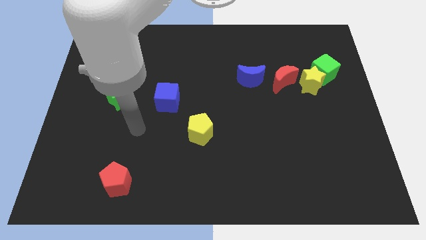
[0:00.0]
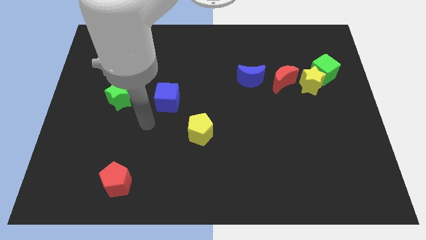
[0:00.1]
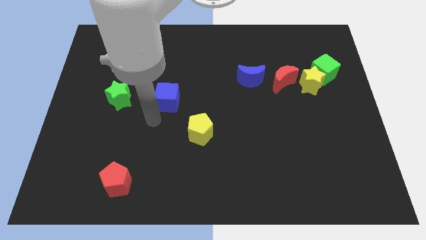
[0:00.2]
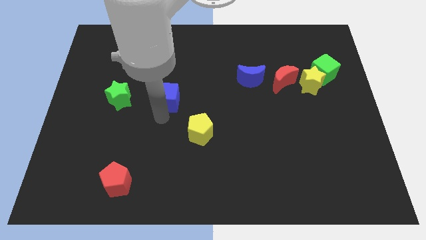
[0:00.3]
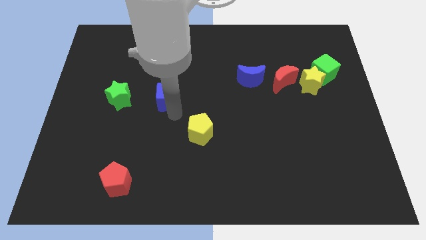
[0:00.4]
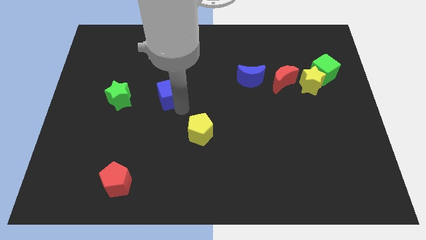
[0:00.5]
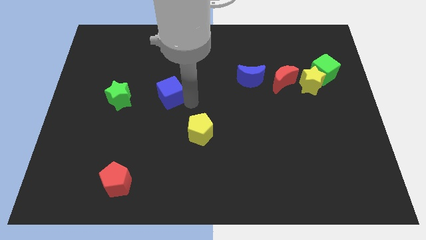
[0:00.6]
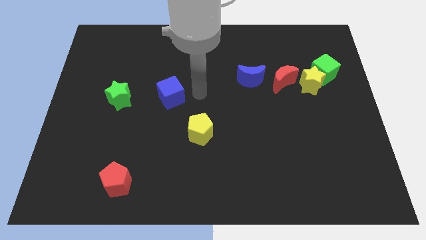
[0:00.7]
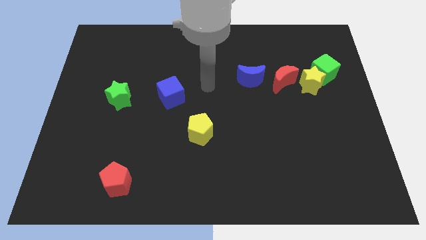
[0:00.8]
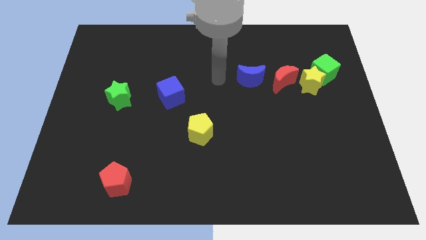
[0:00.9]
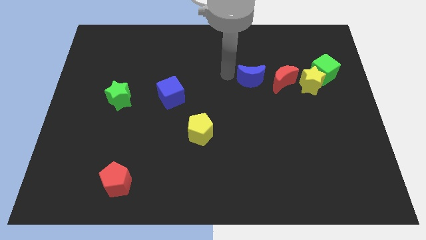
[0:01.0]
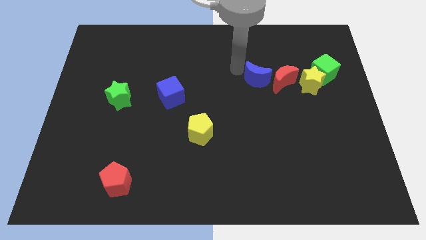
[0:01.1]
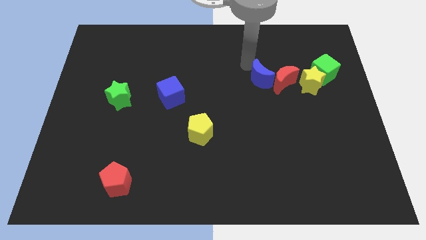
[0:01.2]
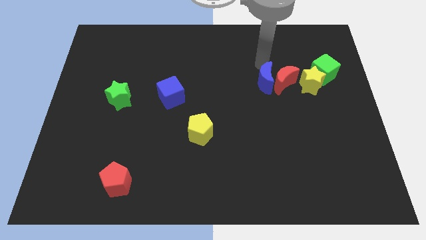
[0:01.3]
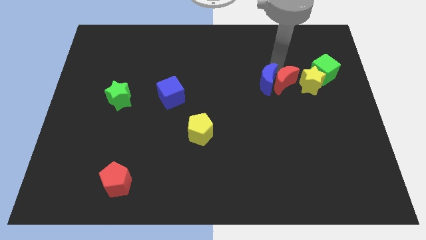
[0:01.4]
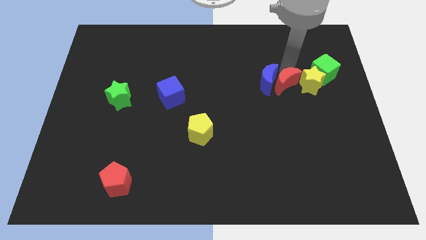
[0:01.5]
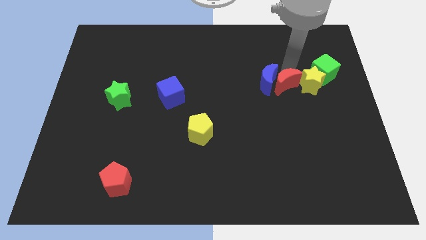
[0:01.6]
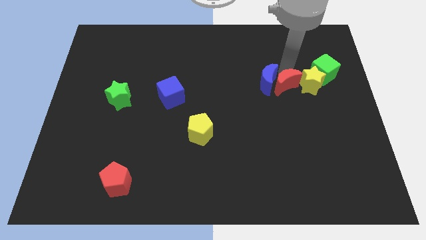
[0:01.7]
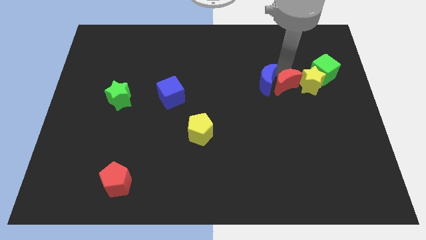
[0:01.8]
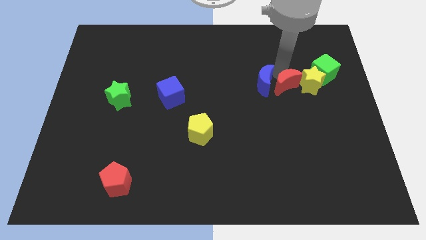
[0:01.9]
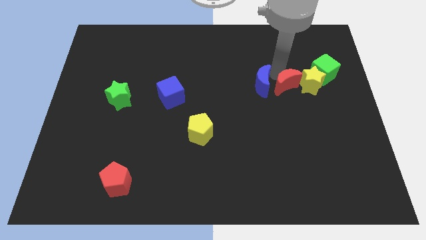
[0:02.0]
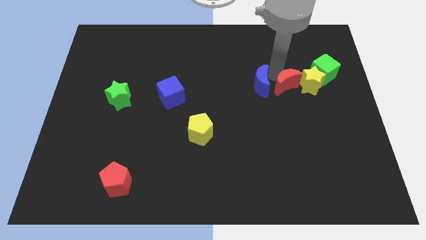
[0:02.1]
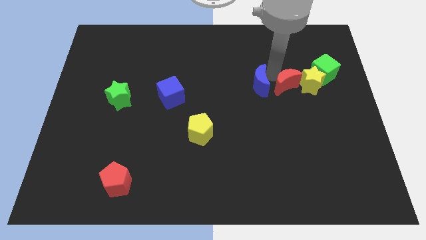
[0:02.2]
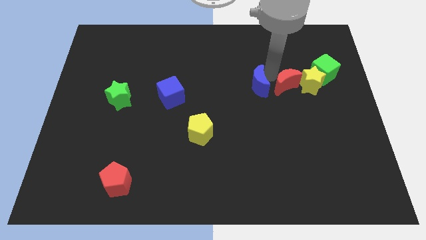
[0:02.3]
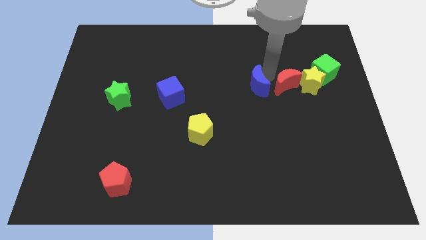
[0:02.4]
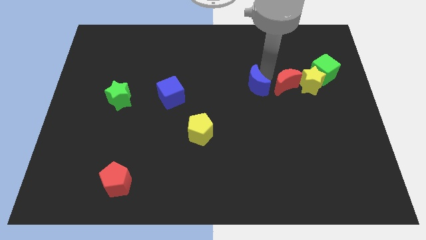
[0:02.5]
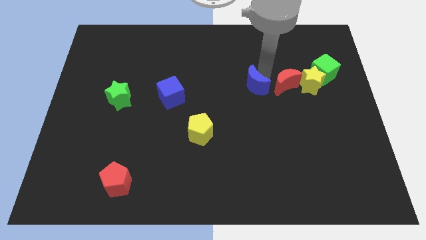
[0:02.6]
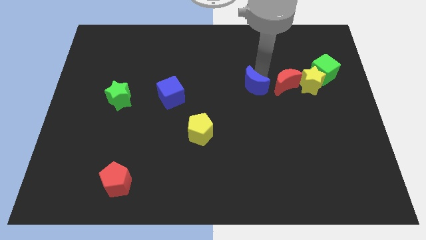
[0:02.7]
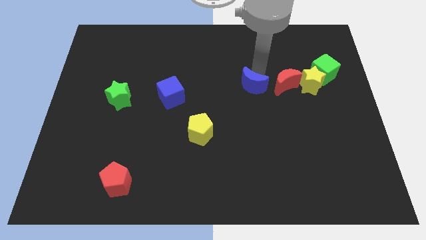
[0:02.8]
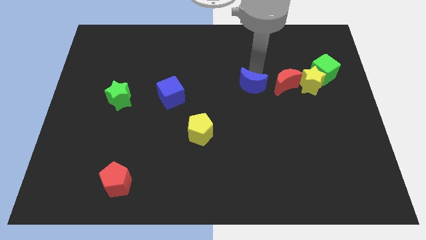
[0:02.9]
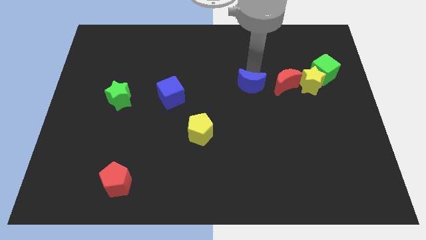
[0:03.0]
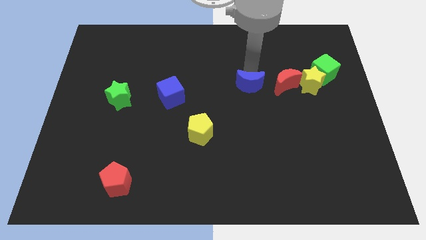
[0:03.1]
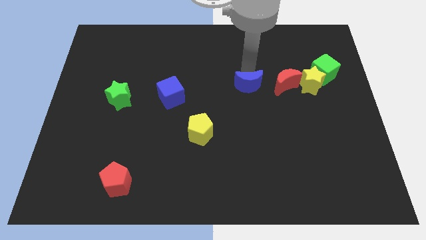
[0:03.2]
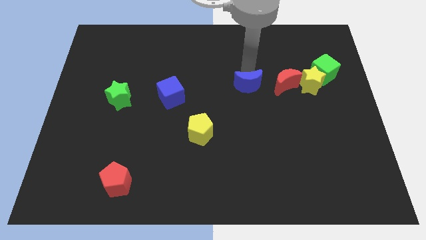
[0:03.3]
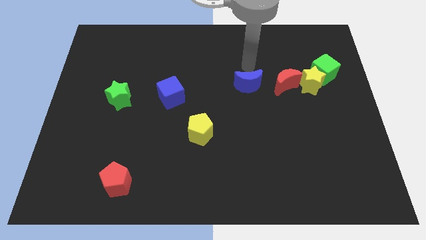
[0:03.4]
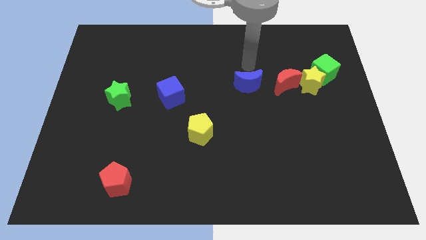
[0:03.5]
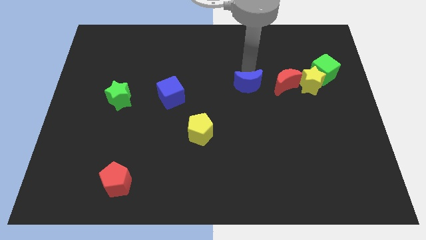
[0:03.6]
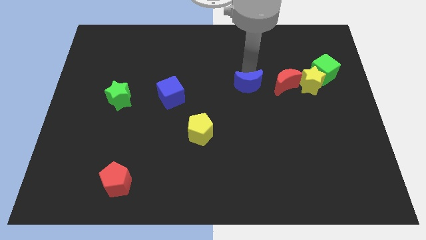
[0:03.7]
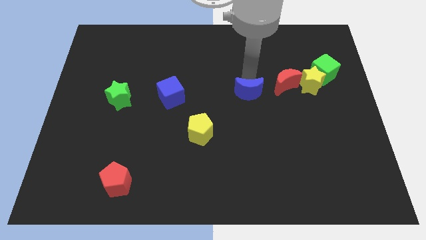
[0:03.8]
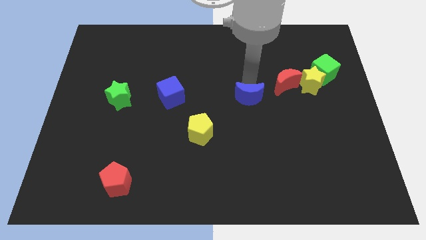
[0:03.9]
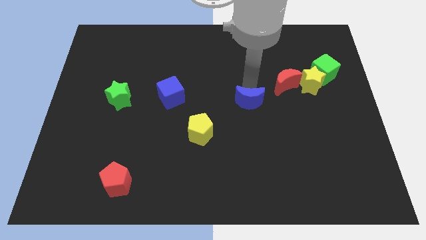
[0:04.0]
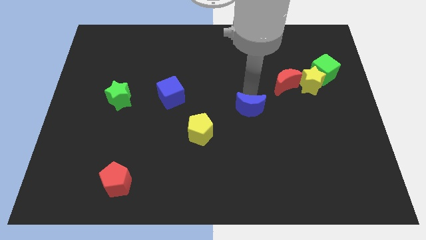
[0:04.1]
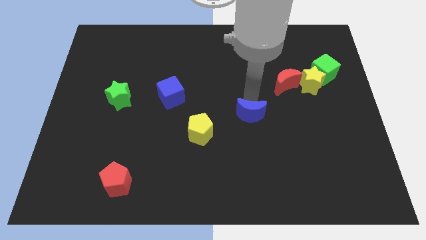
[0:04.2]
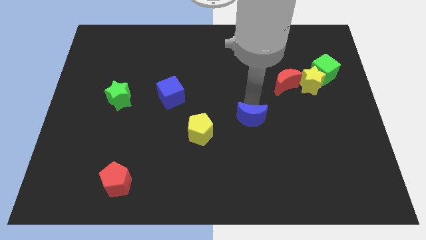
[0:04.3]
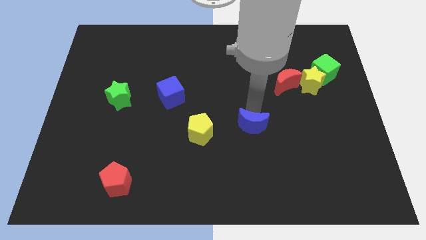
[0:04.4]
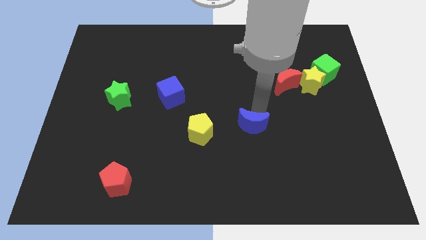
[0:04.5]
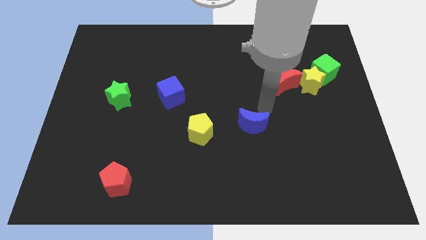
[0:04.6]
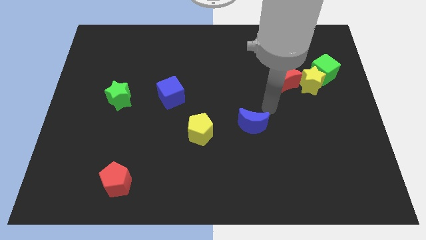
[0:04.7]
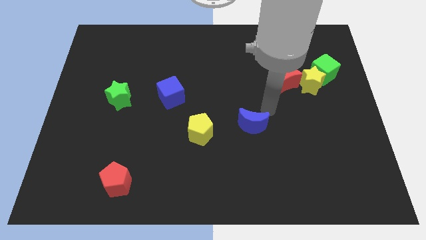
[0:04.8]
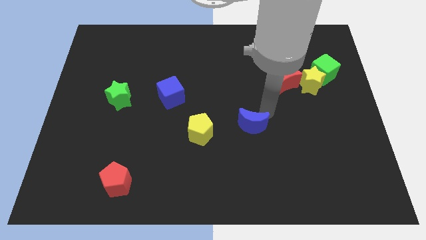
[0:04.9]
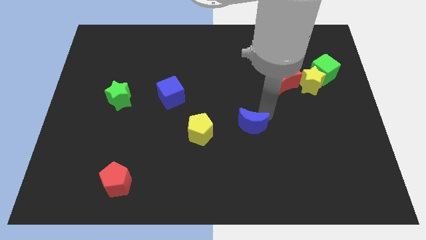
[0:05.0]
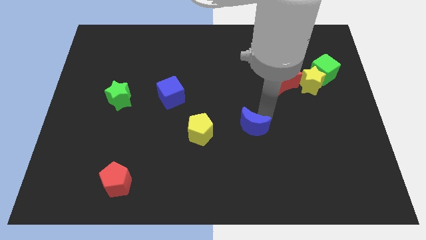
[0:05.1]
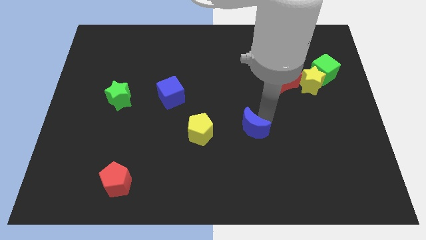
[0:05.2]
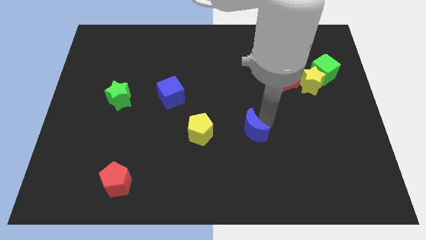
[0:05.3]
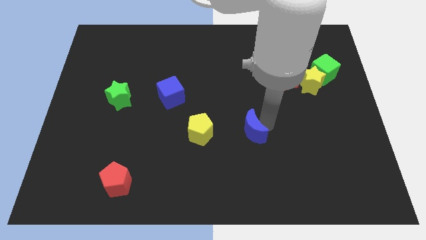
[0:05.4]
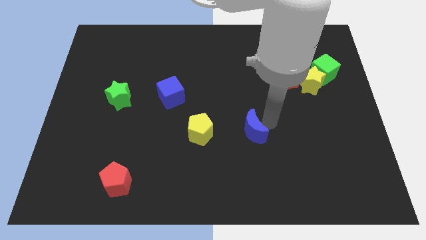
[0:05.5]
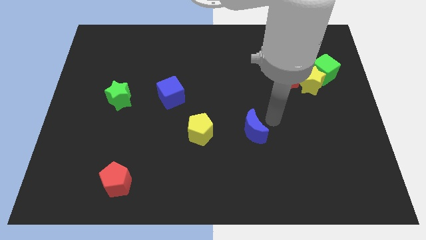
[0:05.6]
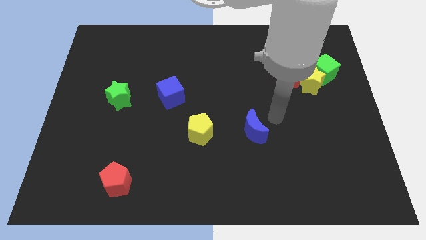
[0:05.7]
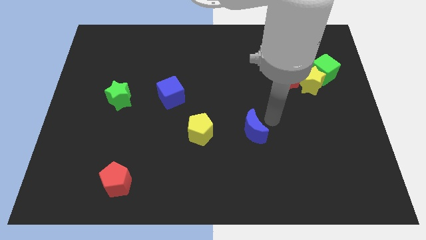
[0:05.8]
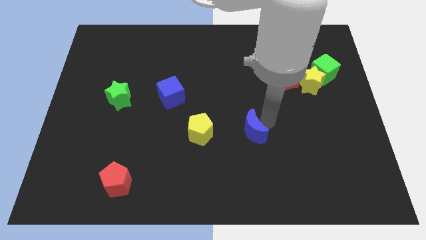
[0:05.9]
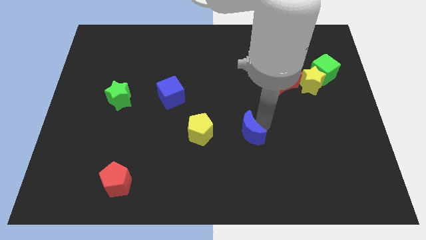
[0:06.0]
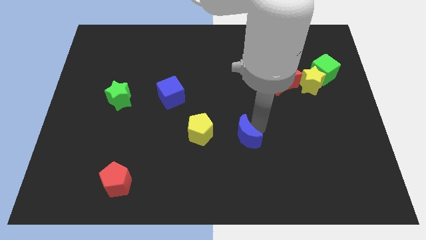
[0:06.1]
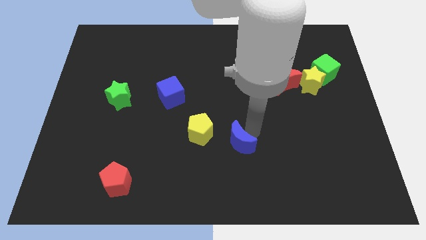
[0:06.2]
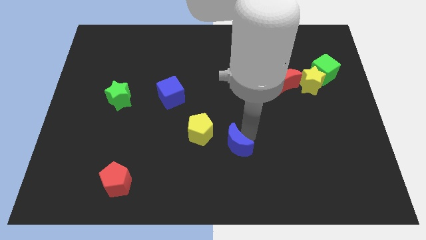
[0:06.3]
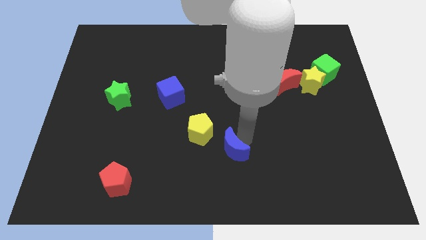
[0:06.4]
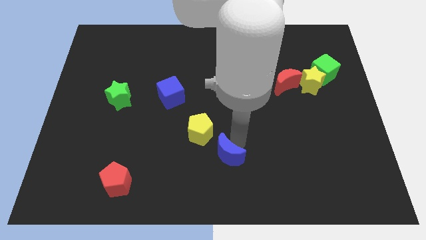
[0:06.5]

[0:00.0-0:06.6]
put the blue moon to the bottom

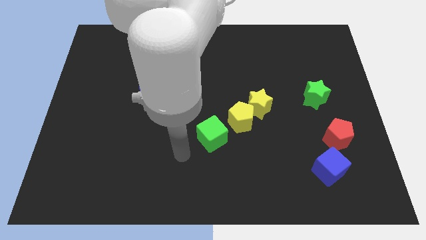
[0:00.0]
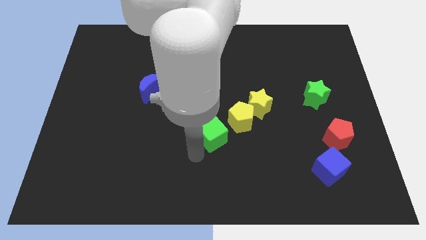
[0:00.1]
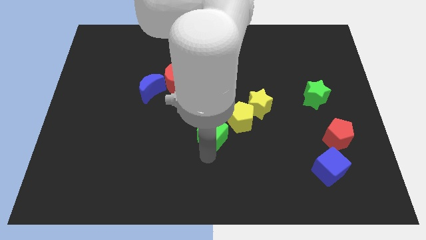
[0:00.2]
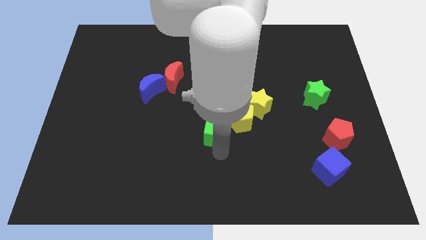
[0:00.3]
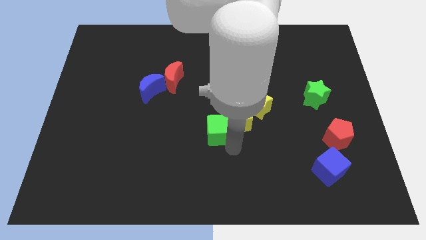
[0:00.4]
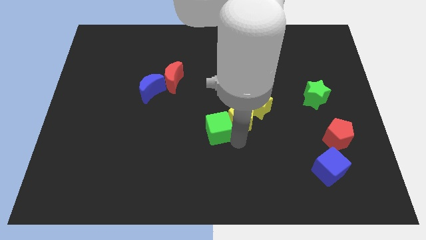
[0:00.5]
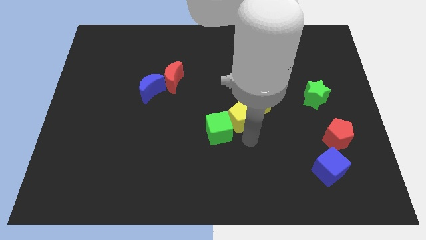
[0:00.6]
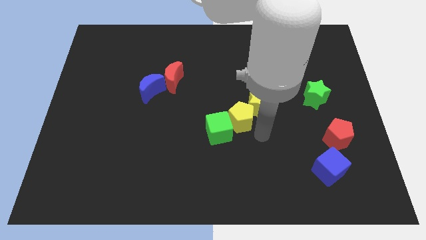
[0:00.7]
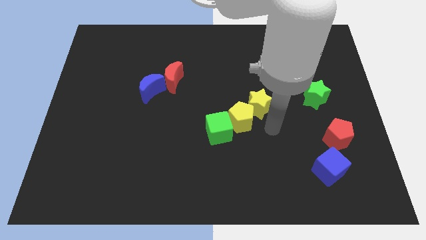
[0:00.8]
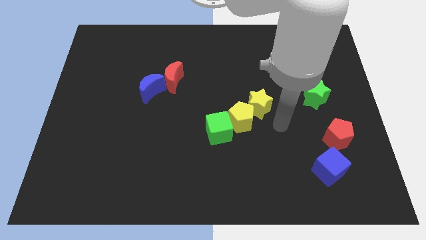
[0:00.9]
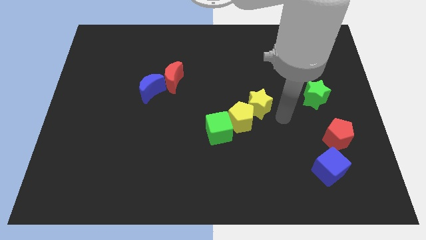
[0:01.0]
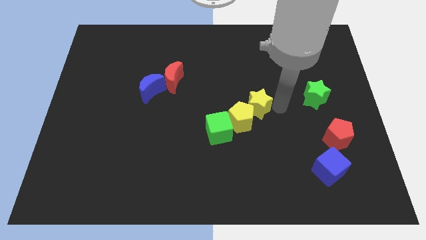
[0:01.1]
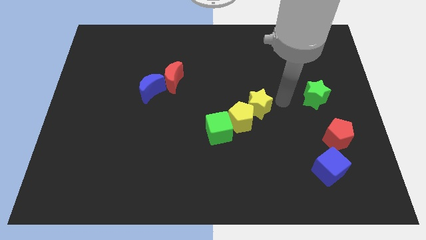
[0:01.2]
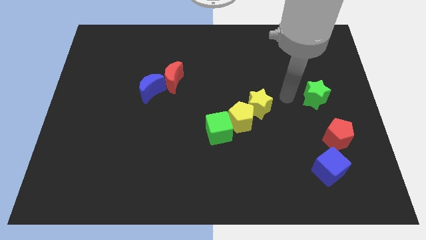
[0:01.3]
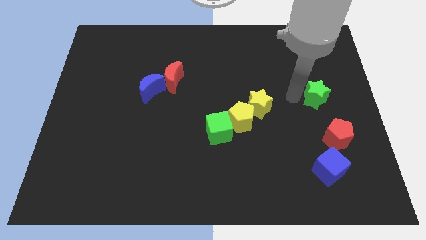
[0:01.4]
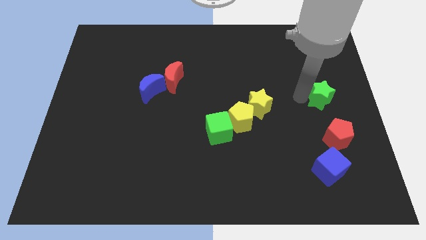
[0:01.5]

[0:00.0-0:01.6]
slide the green star to the right side of the board
